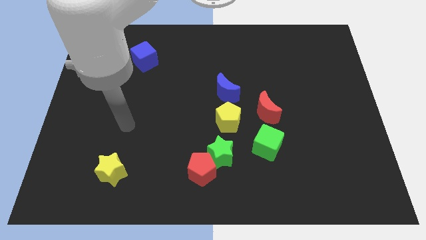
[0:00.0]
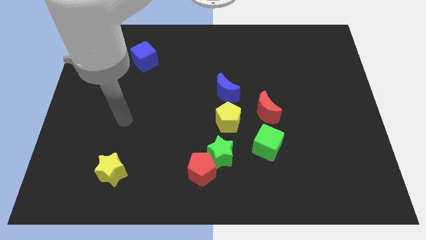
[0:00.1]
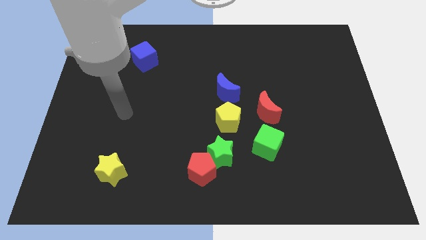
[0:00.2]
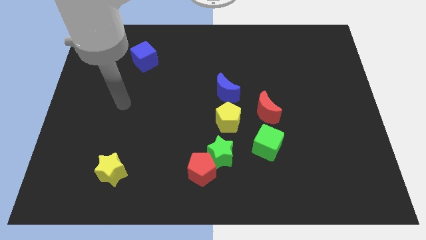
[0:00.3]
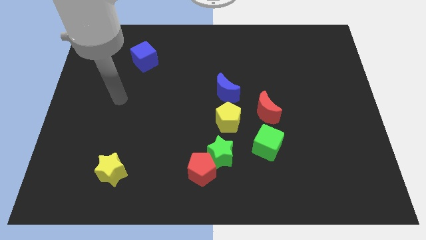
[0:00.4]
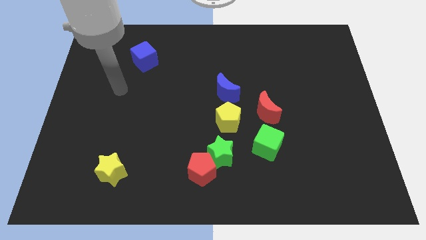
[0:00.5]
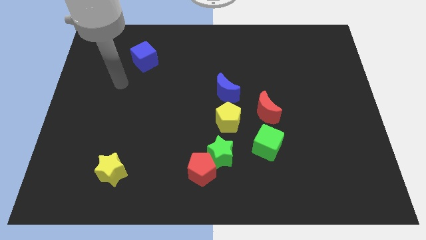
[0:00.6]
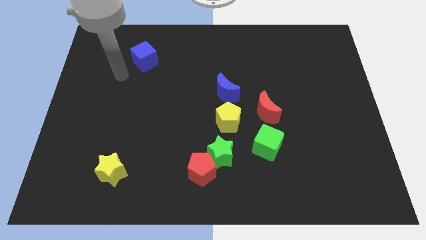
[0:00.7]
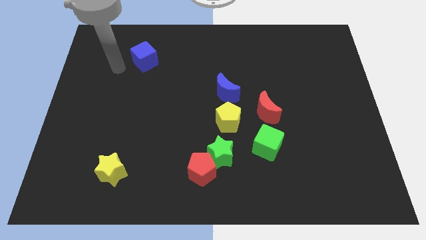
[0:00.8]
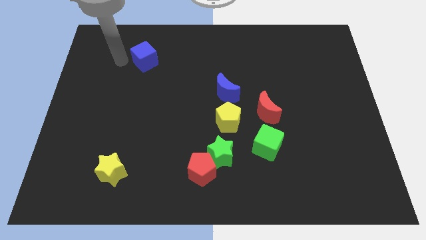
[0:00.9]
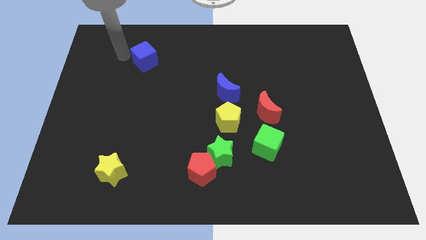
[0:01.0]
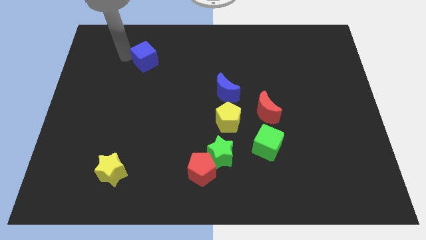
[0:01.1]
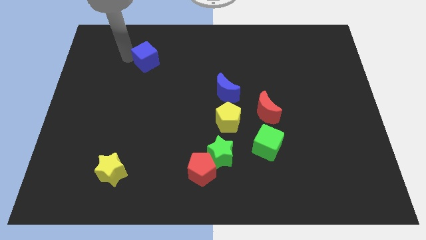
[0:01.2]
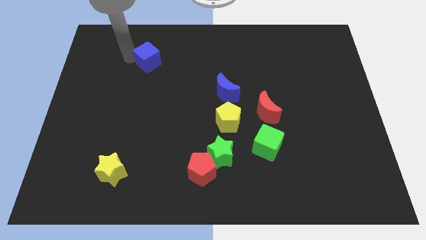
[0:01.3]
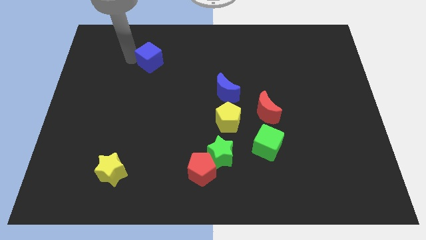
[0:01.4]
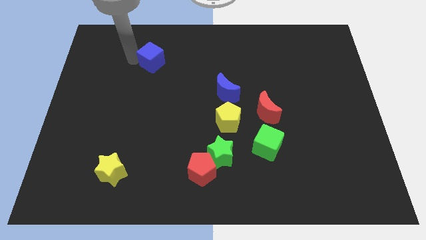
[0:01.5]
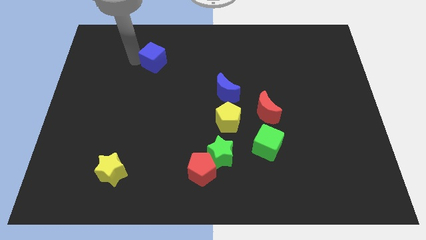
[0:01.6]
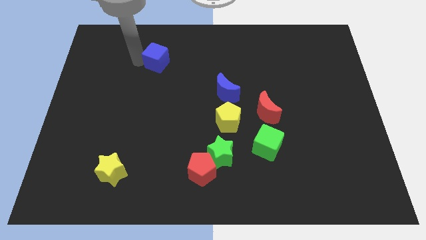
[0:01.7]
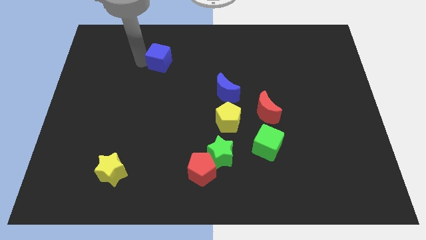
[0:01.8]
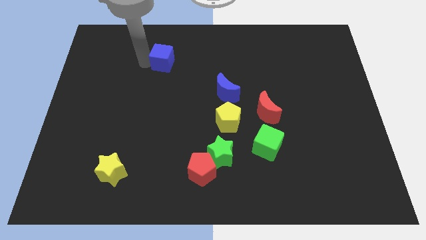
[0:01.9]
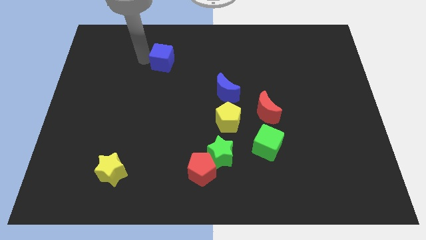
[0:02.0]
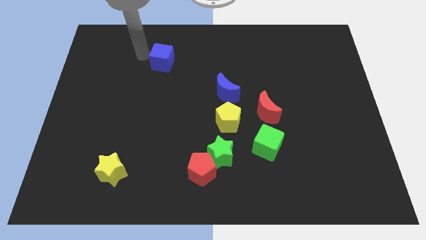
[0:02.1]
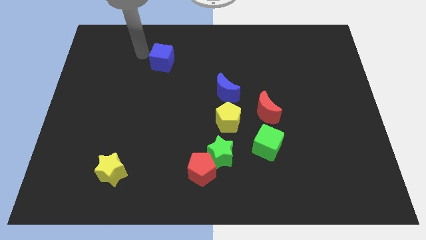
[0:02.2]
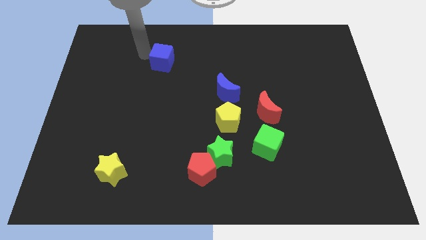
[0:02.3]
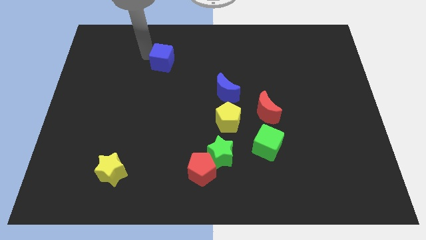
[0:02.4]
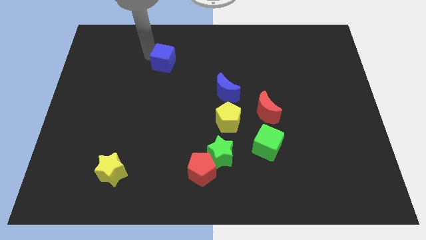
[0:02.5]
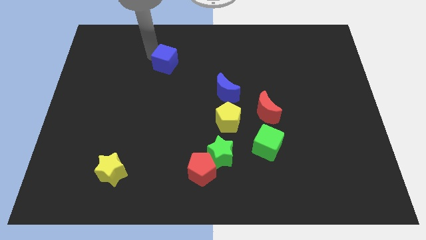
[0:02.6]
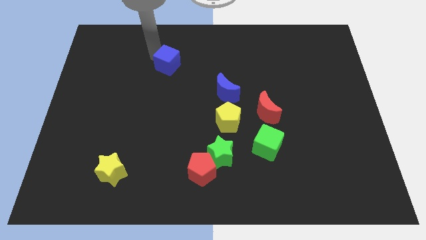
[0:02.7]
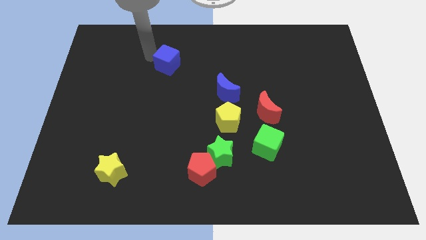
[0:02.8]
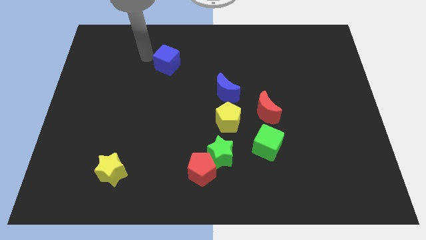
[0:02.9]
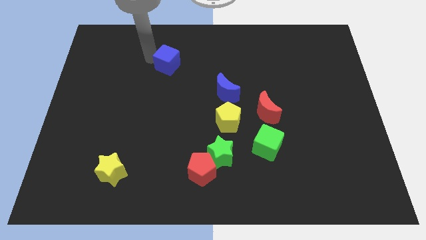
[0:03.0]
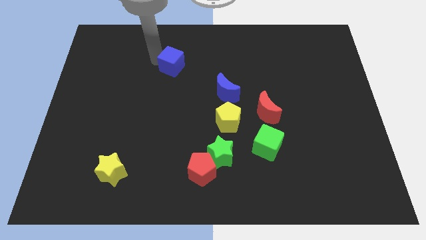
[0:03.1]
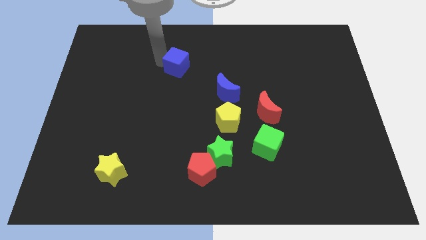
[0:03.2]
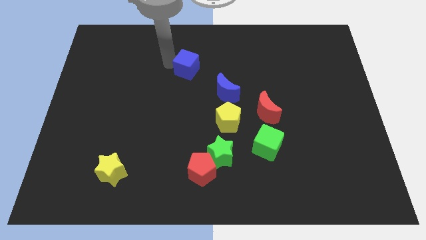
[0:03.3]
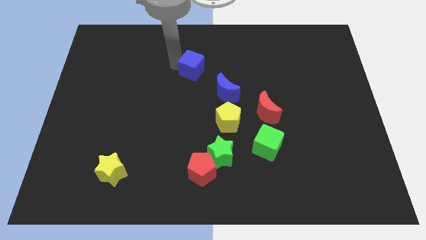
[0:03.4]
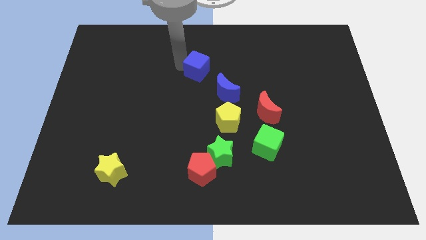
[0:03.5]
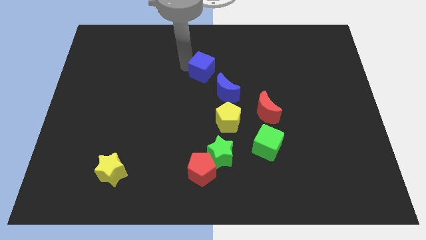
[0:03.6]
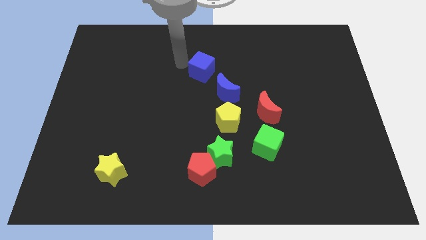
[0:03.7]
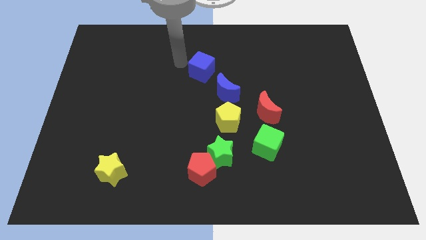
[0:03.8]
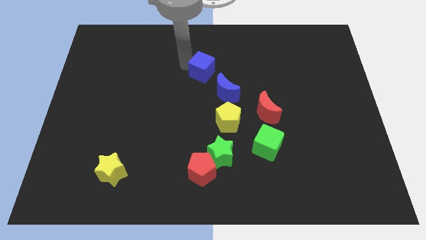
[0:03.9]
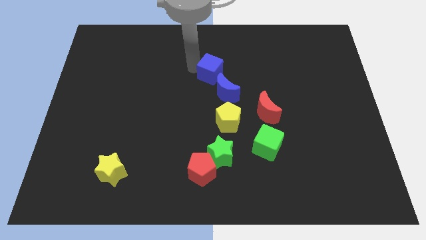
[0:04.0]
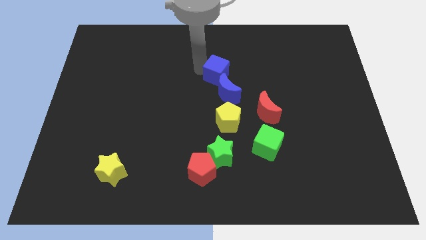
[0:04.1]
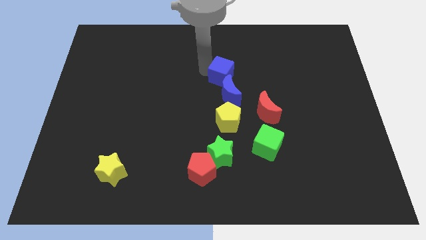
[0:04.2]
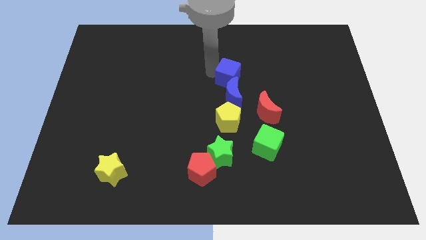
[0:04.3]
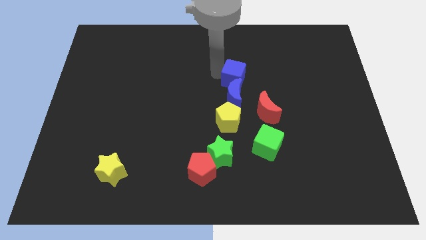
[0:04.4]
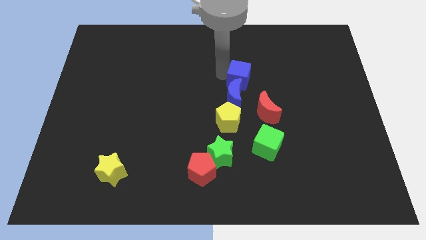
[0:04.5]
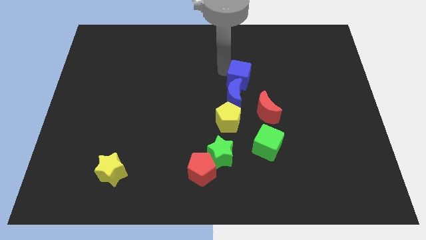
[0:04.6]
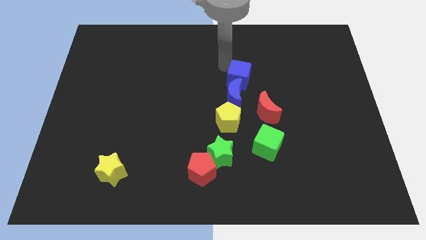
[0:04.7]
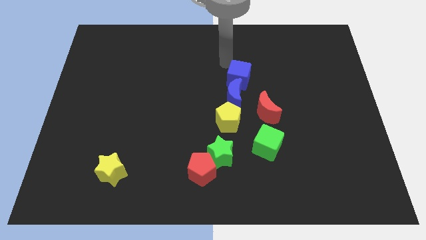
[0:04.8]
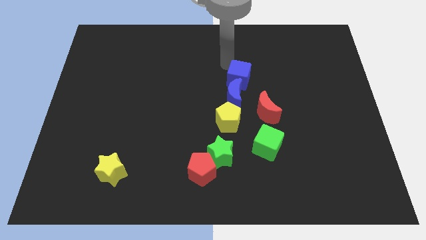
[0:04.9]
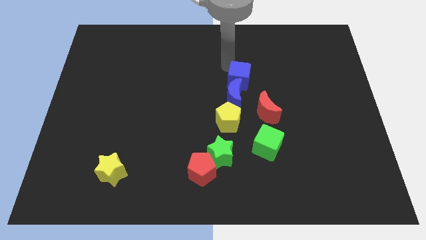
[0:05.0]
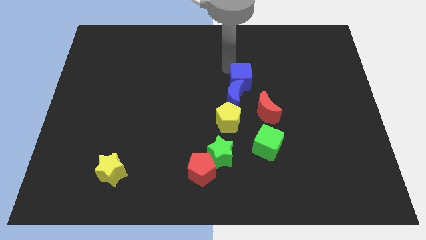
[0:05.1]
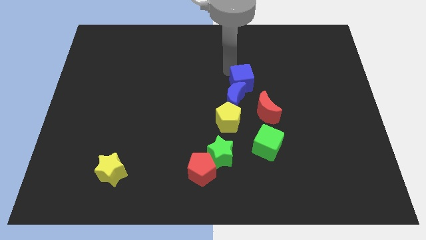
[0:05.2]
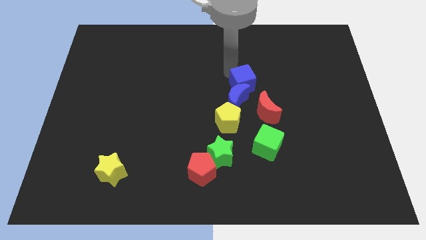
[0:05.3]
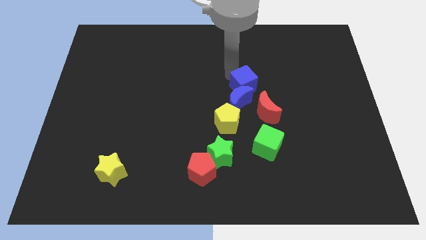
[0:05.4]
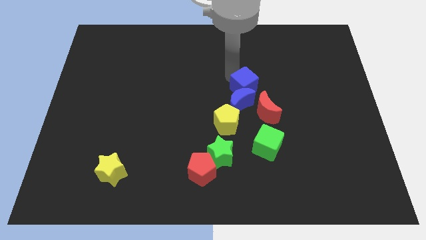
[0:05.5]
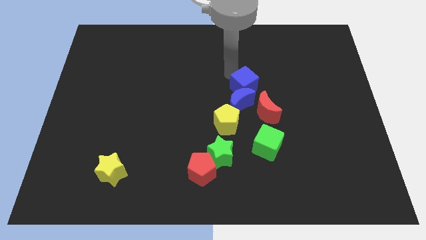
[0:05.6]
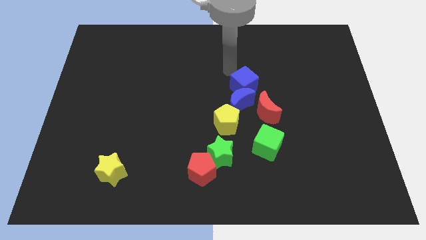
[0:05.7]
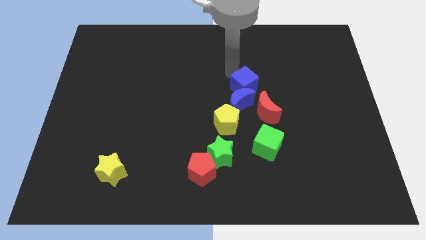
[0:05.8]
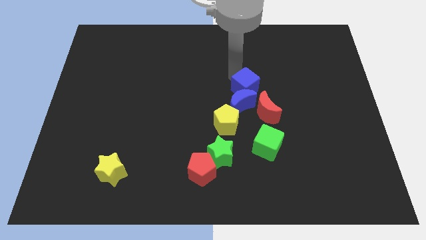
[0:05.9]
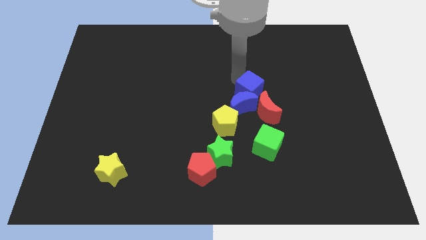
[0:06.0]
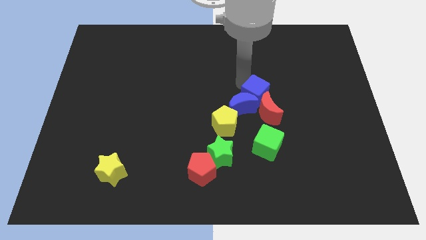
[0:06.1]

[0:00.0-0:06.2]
slide the blue cube towards the red moon

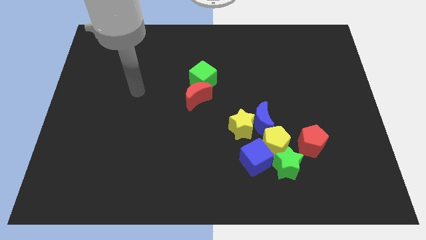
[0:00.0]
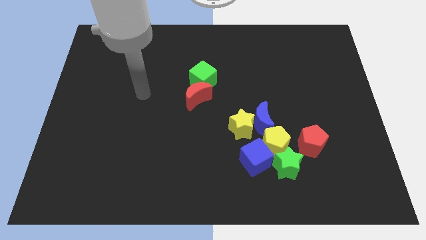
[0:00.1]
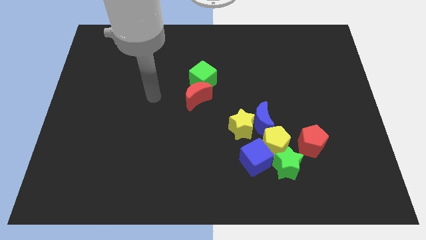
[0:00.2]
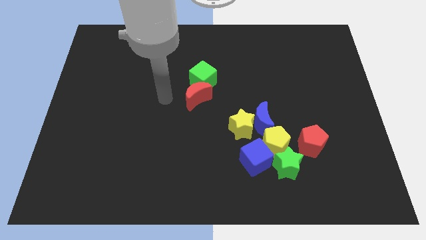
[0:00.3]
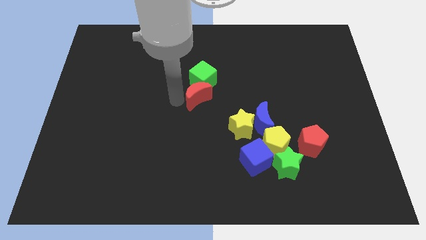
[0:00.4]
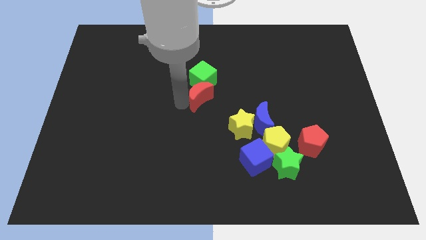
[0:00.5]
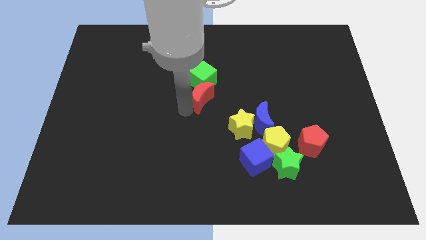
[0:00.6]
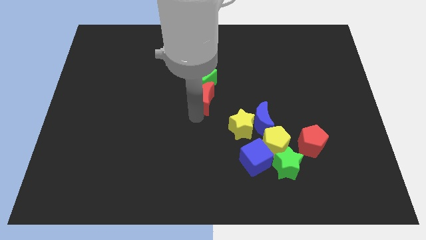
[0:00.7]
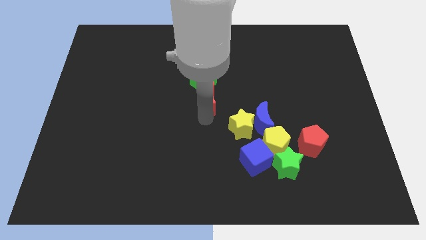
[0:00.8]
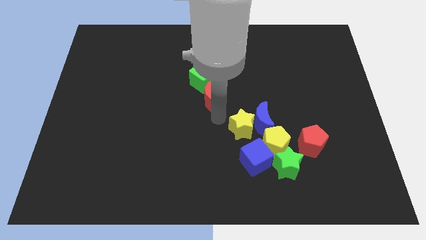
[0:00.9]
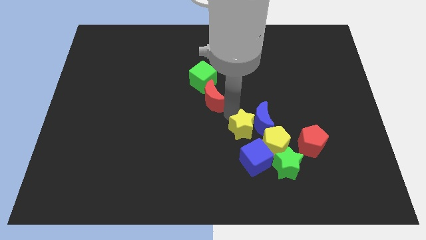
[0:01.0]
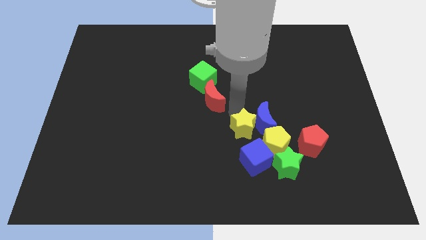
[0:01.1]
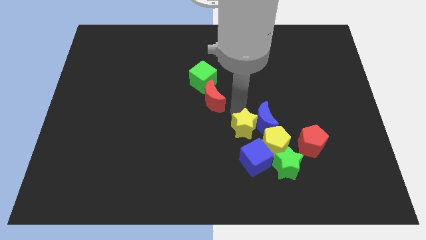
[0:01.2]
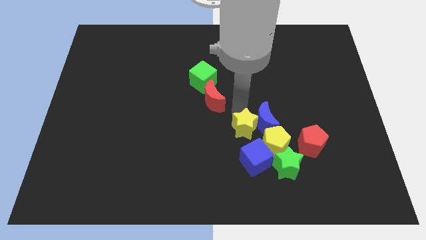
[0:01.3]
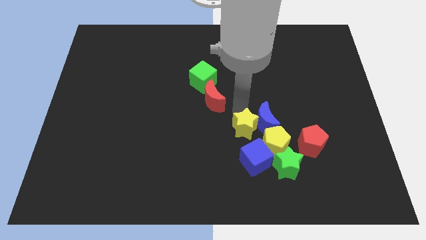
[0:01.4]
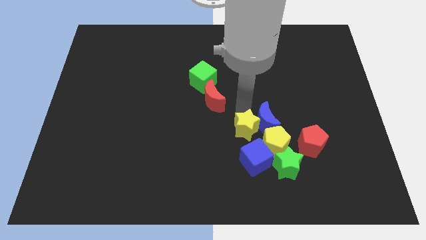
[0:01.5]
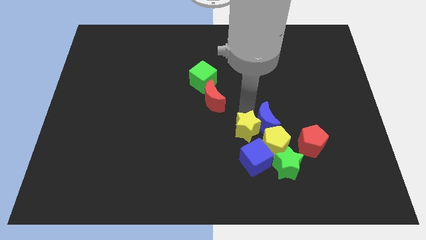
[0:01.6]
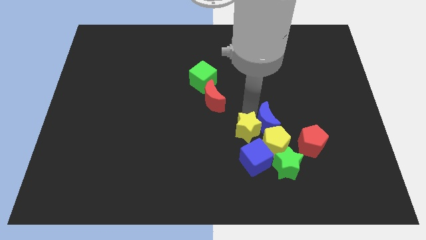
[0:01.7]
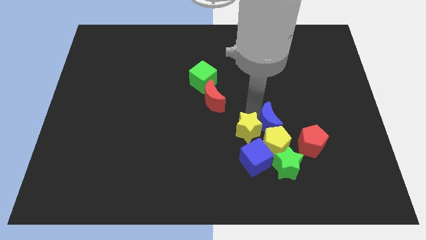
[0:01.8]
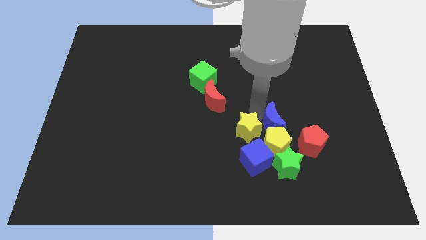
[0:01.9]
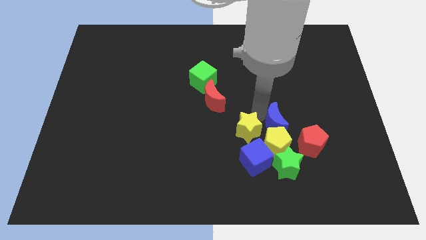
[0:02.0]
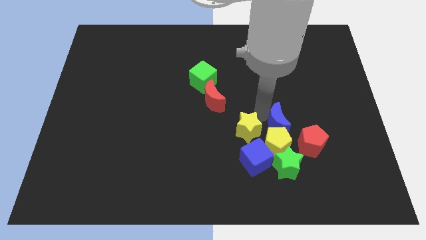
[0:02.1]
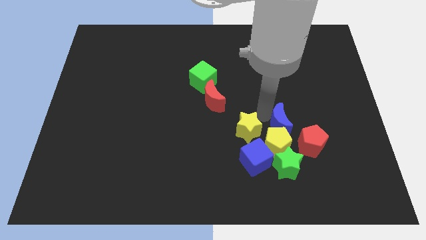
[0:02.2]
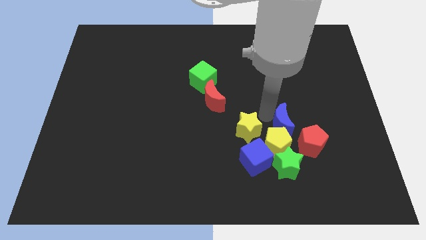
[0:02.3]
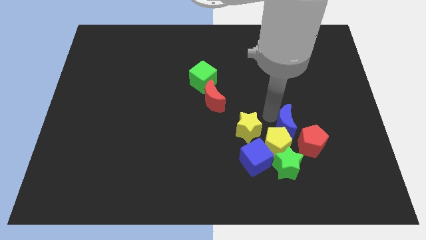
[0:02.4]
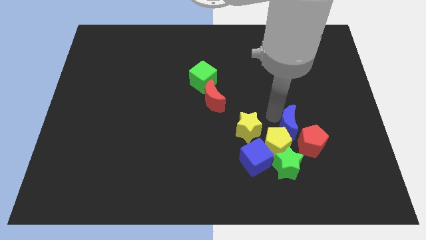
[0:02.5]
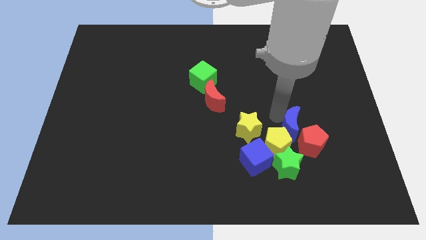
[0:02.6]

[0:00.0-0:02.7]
move the blue moon next to the red pentagon
